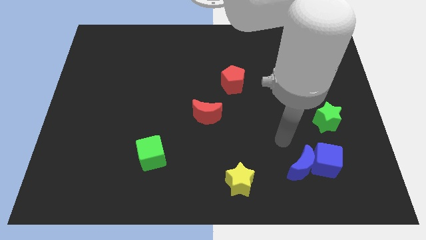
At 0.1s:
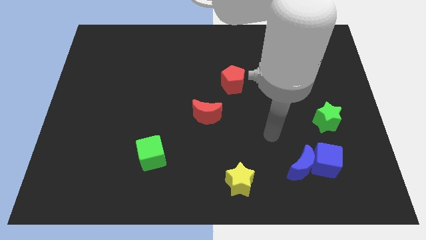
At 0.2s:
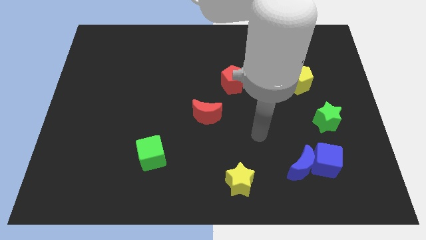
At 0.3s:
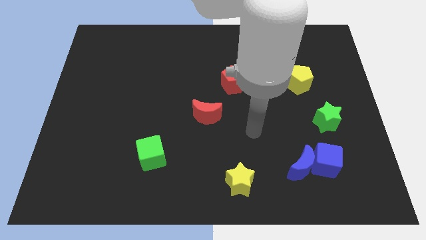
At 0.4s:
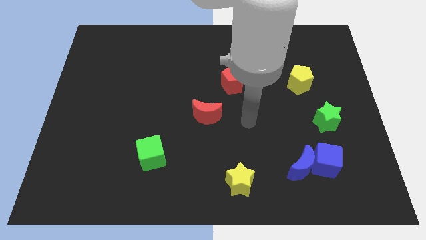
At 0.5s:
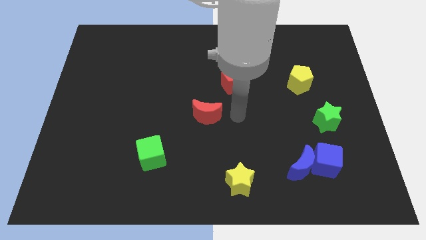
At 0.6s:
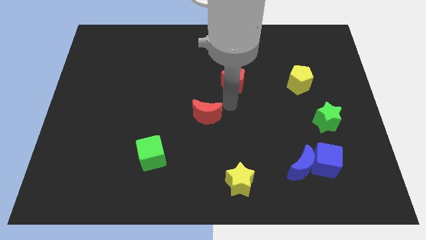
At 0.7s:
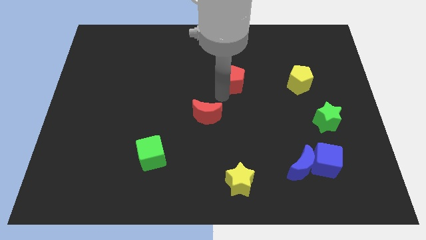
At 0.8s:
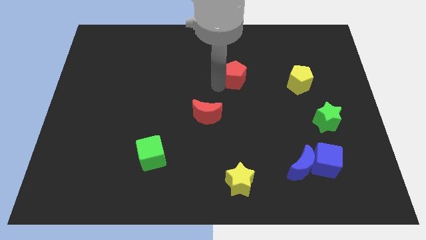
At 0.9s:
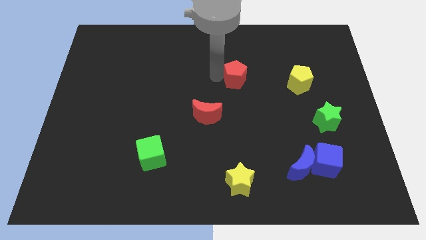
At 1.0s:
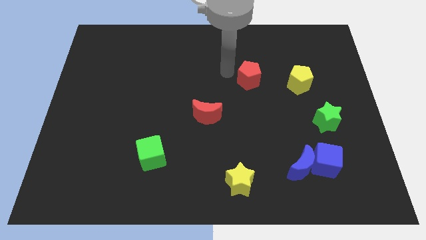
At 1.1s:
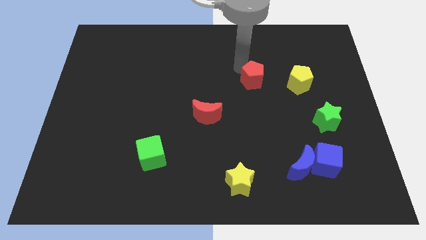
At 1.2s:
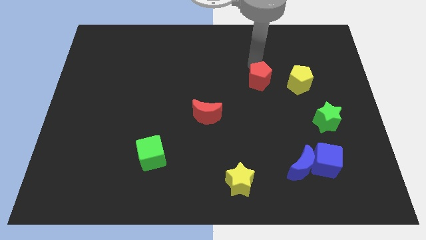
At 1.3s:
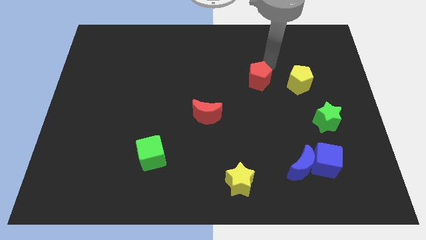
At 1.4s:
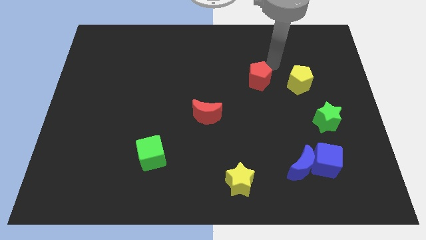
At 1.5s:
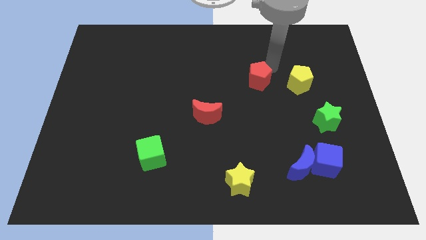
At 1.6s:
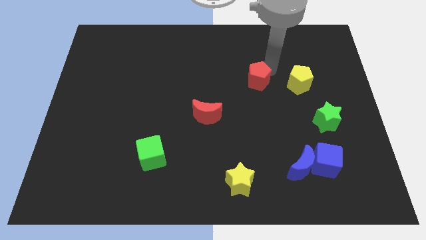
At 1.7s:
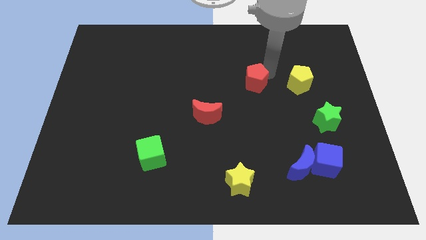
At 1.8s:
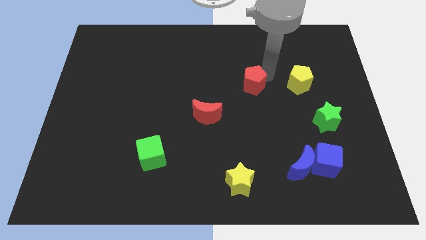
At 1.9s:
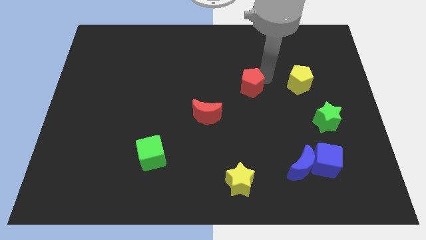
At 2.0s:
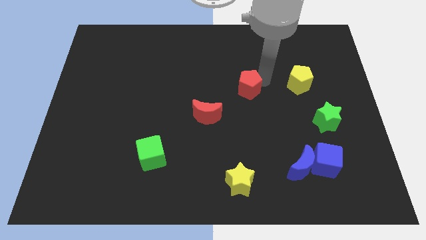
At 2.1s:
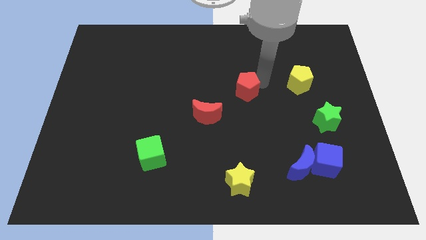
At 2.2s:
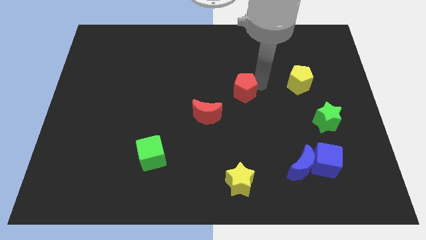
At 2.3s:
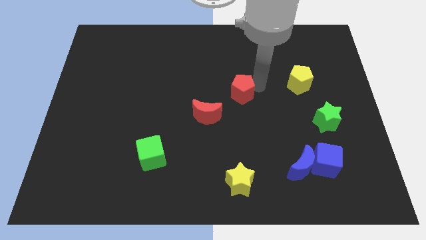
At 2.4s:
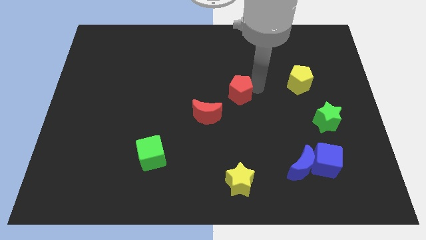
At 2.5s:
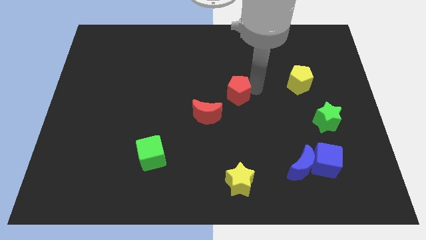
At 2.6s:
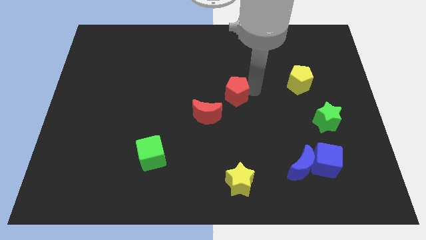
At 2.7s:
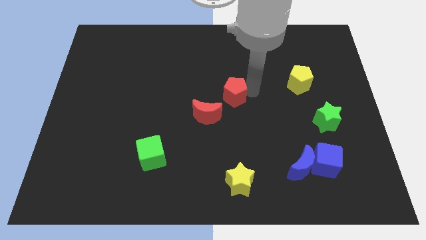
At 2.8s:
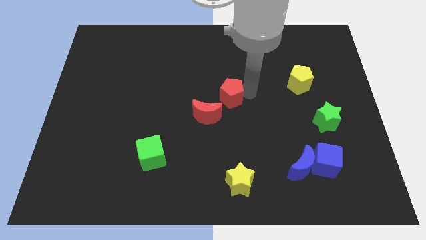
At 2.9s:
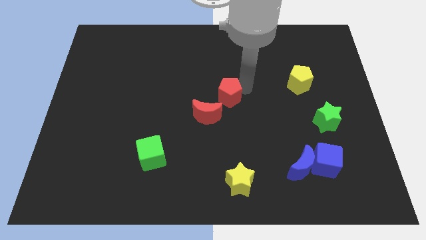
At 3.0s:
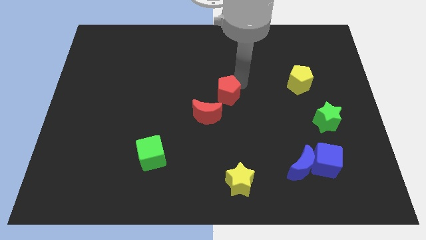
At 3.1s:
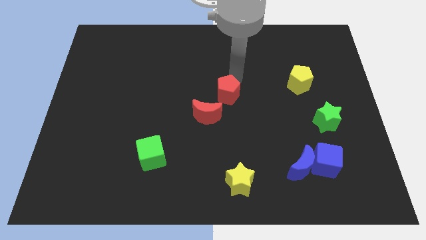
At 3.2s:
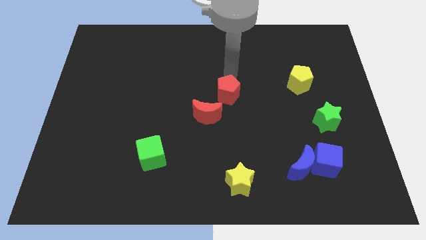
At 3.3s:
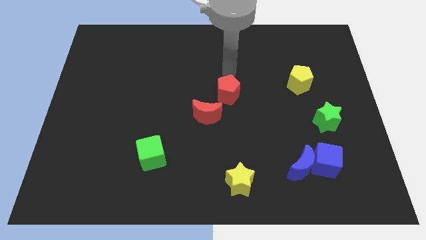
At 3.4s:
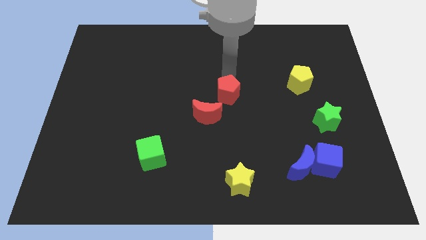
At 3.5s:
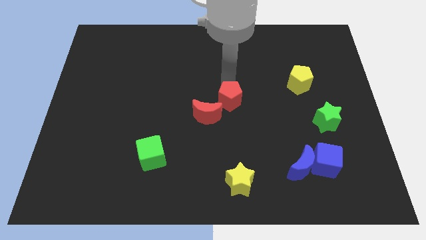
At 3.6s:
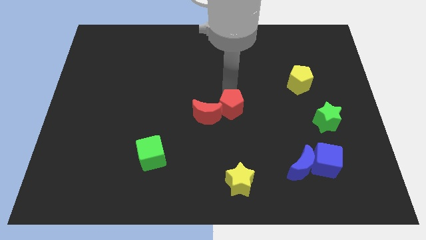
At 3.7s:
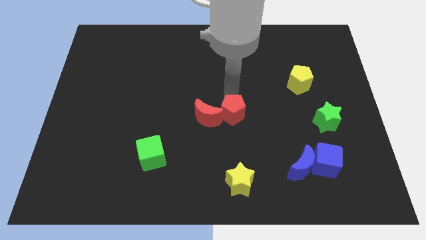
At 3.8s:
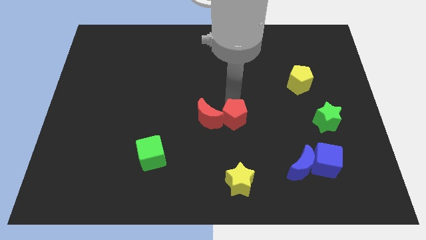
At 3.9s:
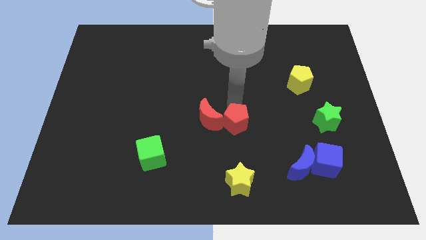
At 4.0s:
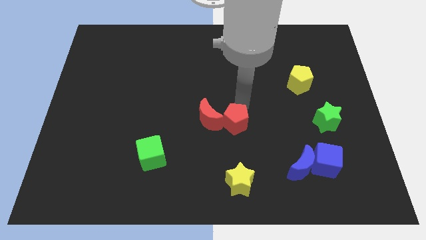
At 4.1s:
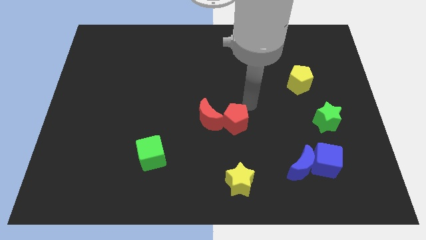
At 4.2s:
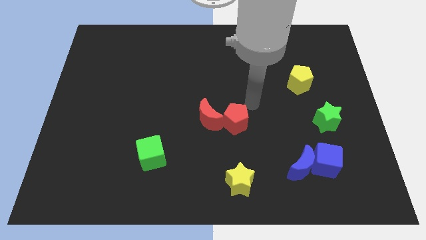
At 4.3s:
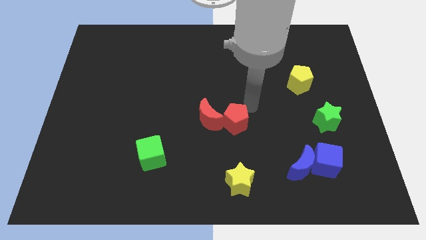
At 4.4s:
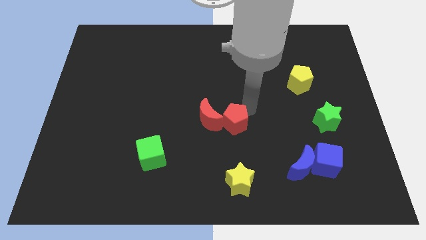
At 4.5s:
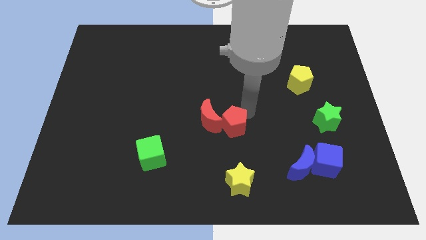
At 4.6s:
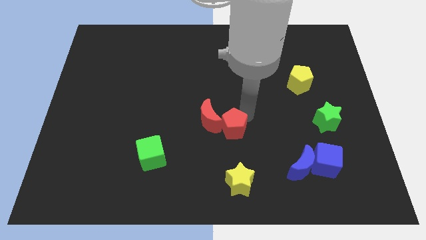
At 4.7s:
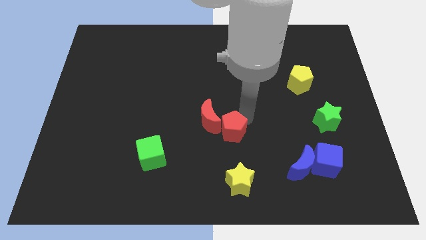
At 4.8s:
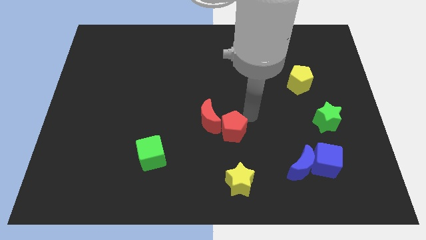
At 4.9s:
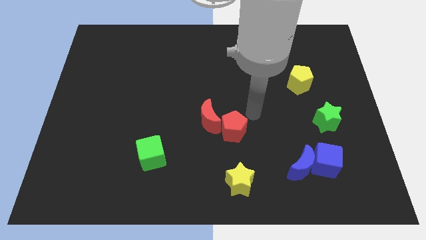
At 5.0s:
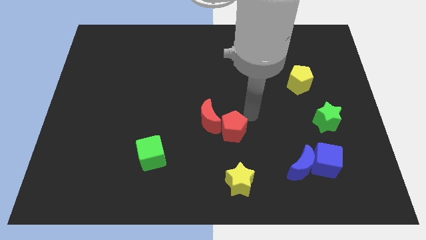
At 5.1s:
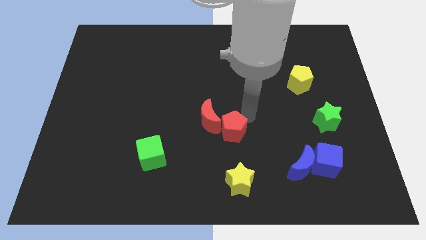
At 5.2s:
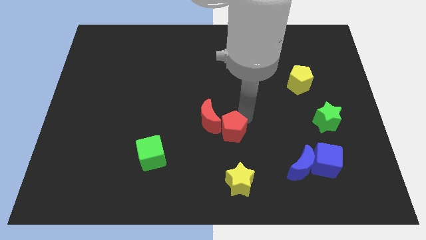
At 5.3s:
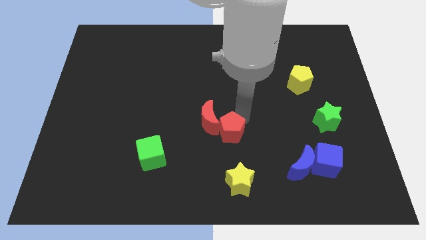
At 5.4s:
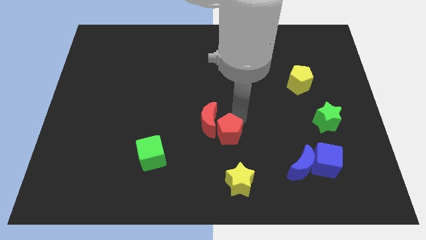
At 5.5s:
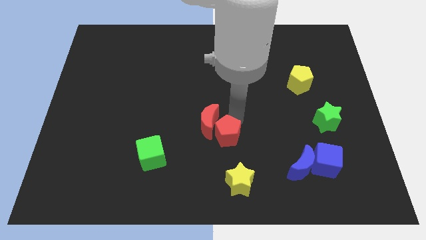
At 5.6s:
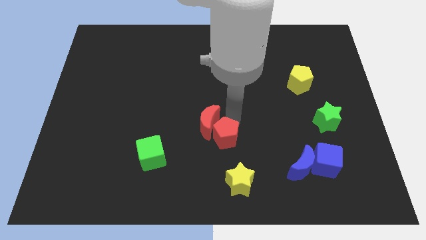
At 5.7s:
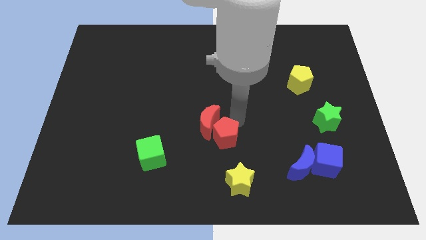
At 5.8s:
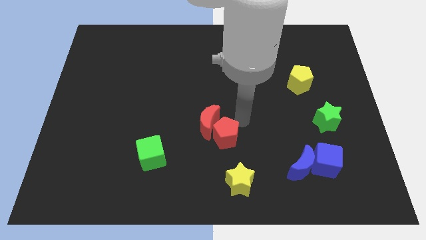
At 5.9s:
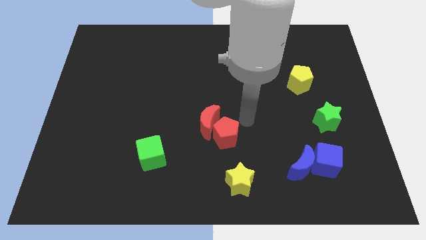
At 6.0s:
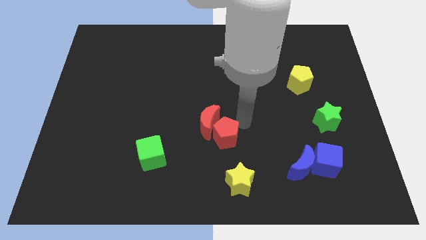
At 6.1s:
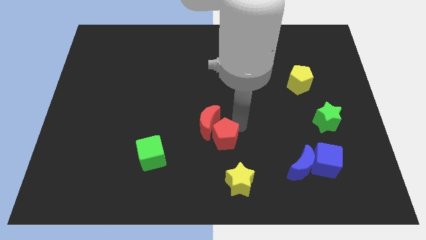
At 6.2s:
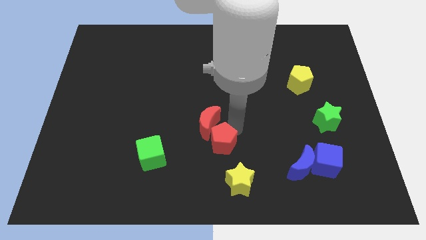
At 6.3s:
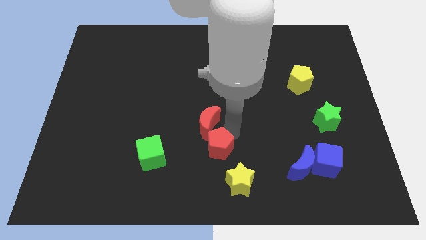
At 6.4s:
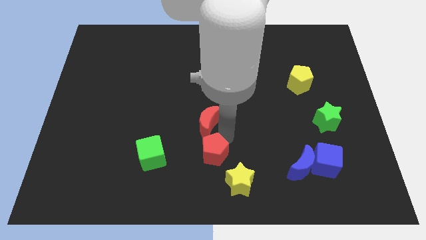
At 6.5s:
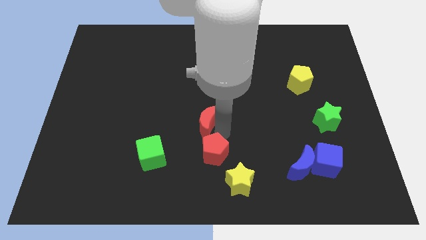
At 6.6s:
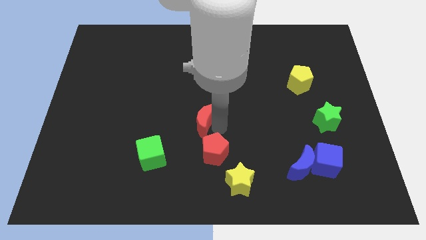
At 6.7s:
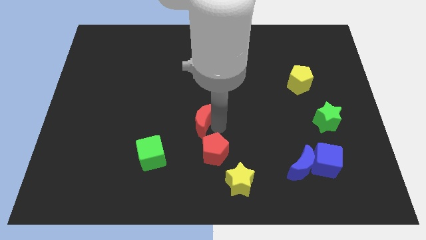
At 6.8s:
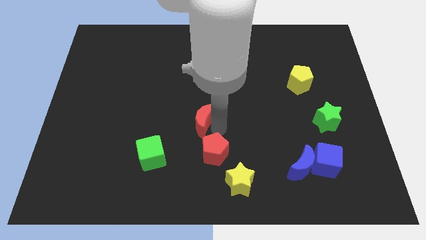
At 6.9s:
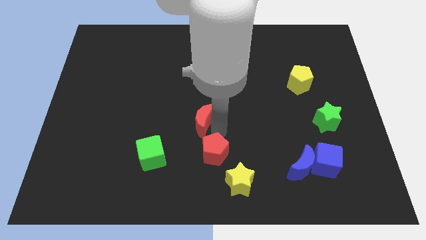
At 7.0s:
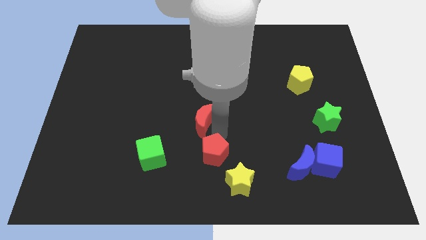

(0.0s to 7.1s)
put the red pentagon to the bottom

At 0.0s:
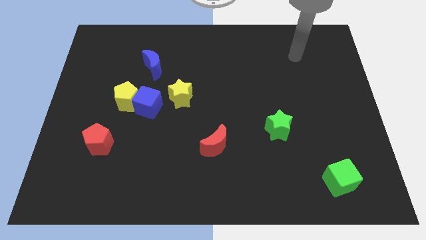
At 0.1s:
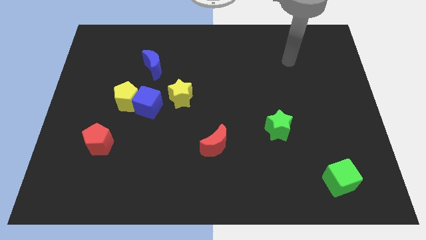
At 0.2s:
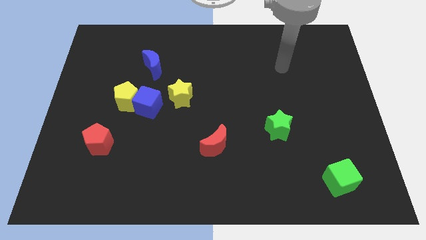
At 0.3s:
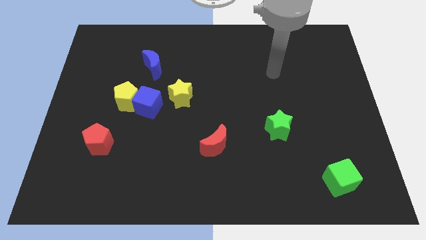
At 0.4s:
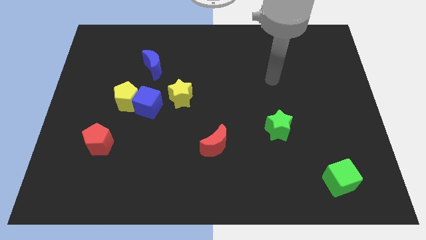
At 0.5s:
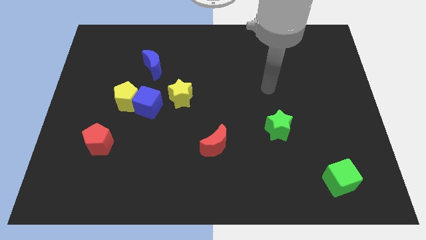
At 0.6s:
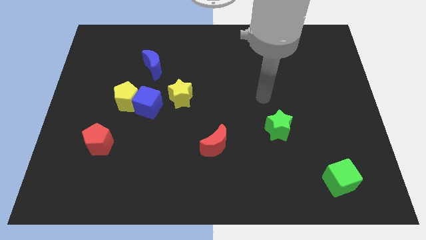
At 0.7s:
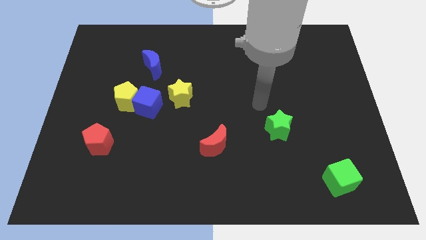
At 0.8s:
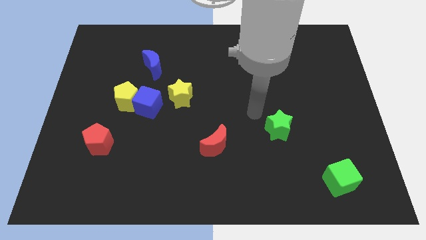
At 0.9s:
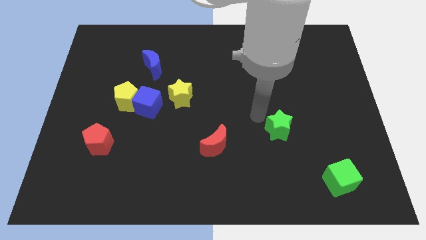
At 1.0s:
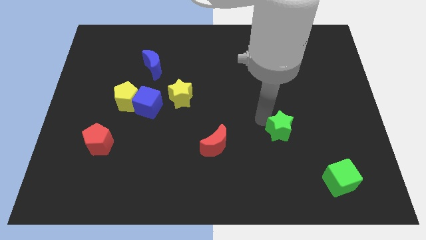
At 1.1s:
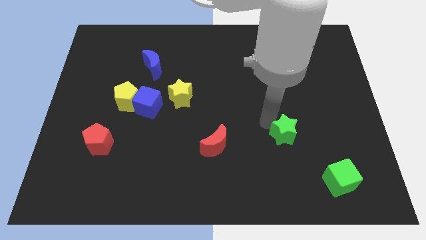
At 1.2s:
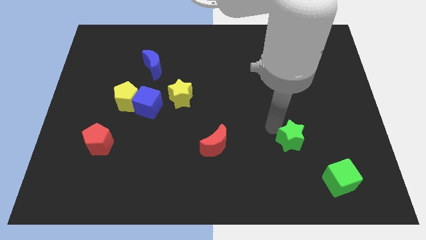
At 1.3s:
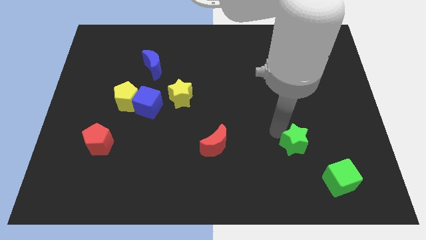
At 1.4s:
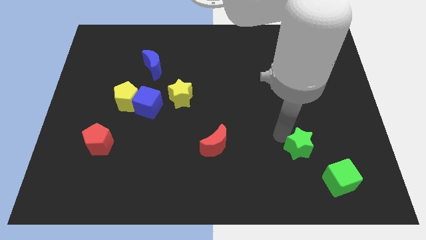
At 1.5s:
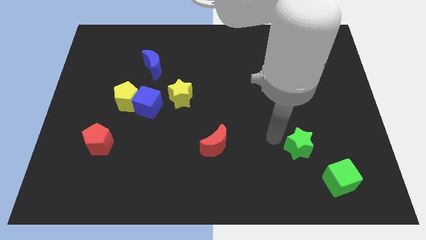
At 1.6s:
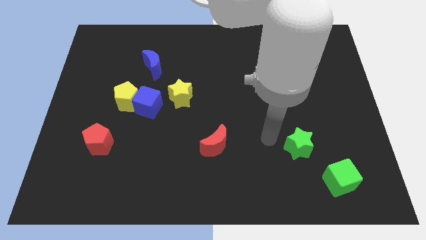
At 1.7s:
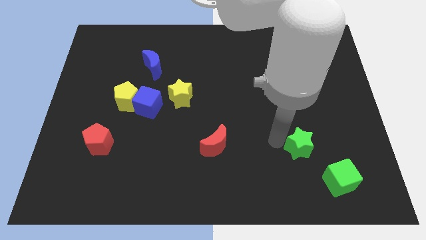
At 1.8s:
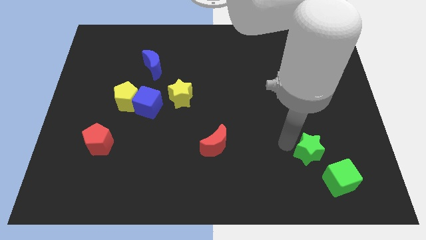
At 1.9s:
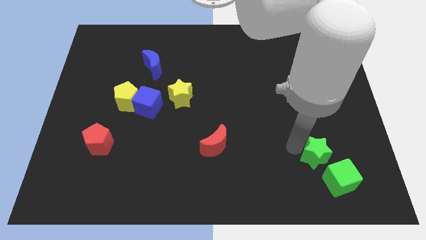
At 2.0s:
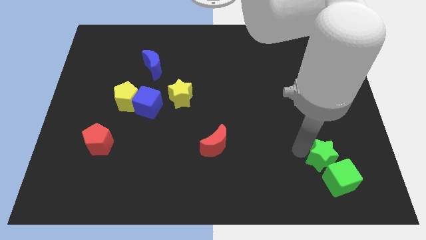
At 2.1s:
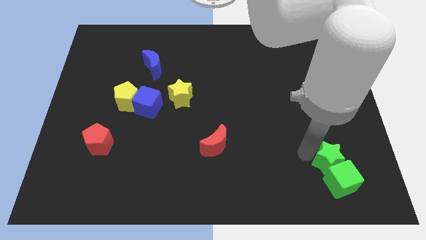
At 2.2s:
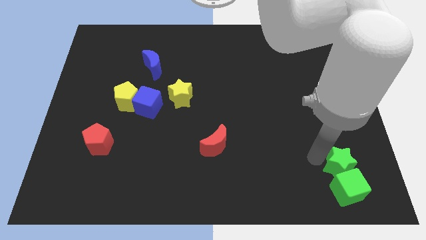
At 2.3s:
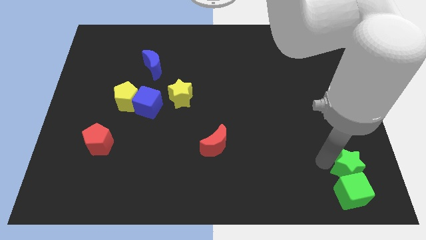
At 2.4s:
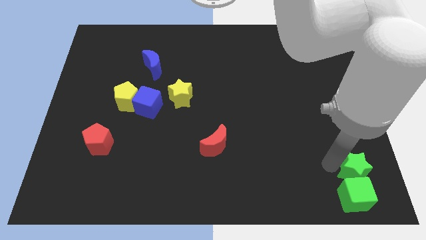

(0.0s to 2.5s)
push the green star to the bottom right
